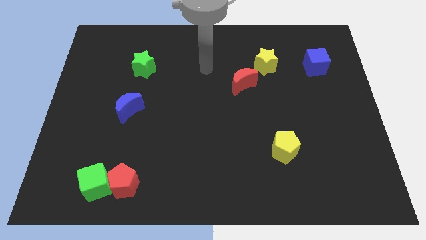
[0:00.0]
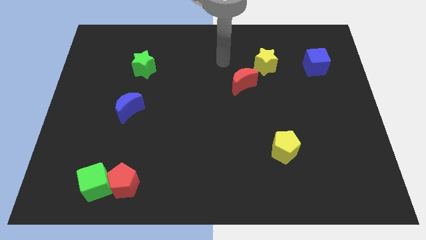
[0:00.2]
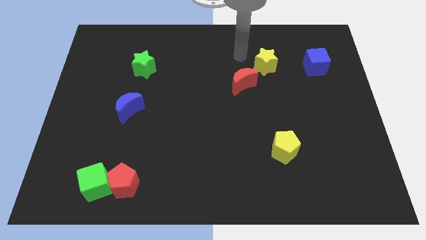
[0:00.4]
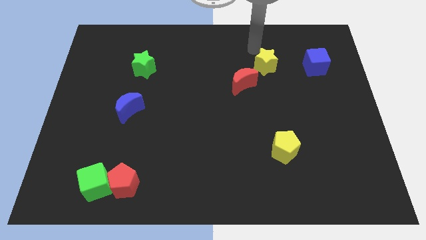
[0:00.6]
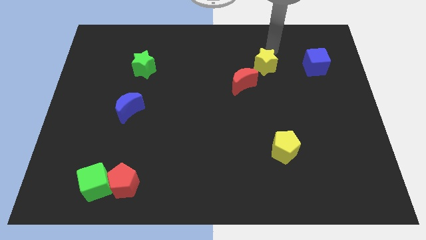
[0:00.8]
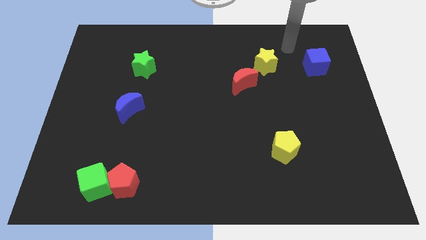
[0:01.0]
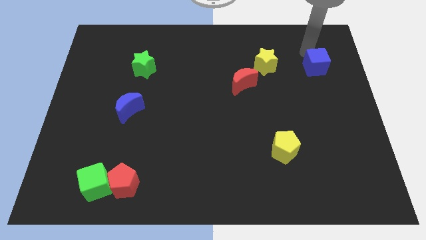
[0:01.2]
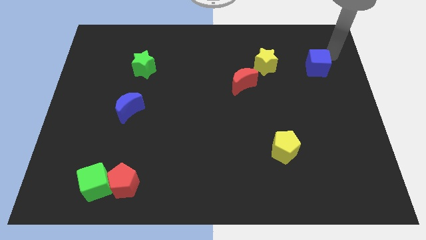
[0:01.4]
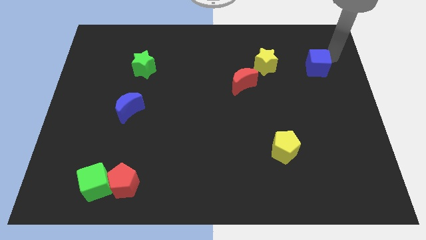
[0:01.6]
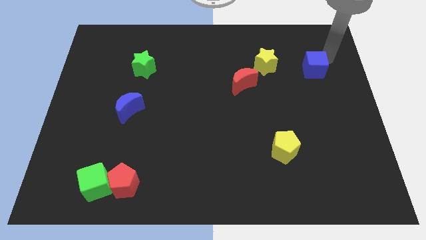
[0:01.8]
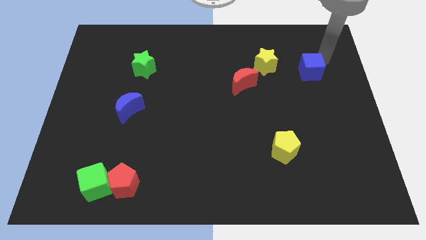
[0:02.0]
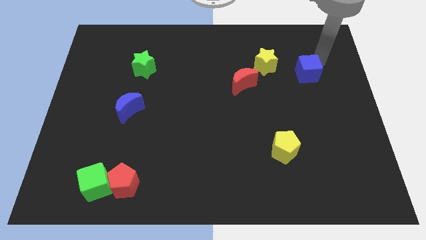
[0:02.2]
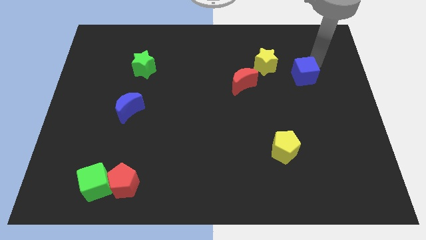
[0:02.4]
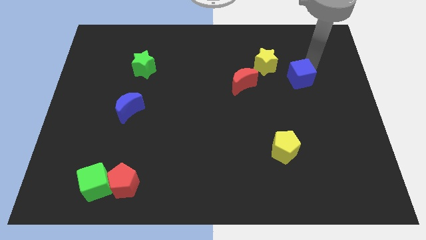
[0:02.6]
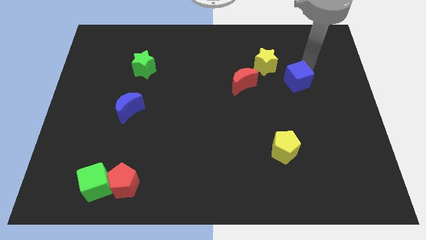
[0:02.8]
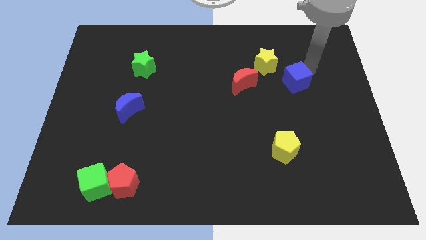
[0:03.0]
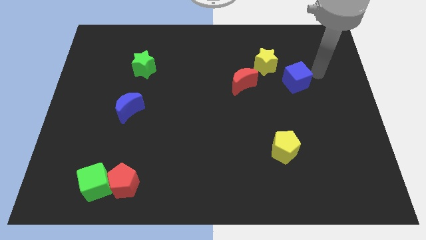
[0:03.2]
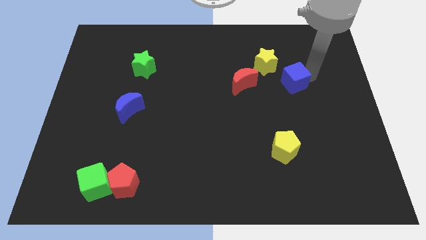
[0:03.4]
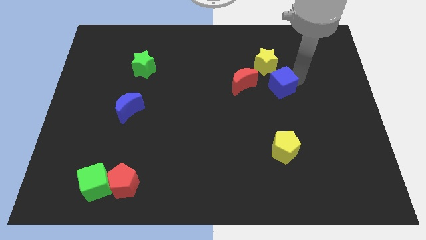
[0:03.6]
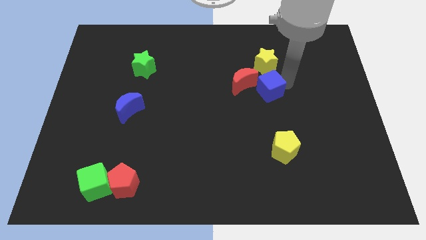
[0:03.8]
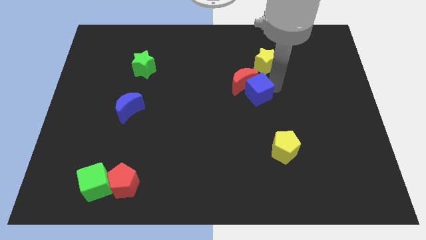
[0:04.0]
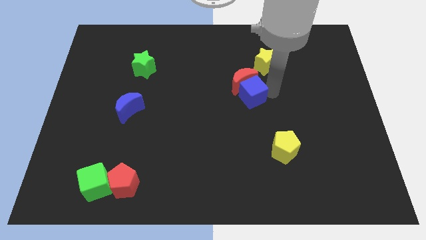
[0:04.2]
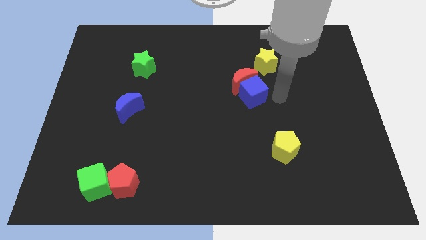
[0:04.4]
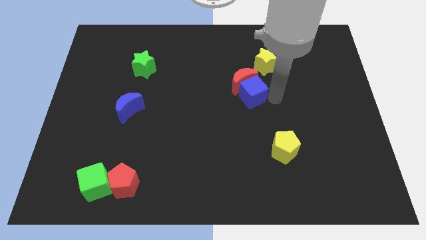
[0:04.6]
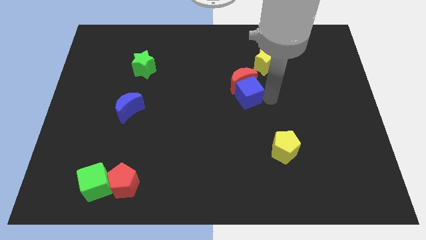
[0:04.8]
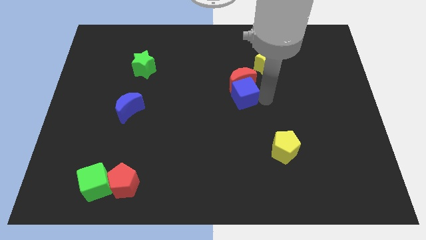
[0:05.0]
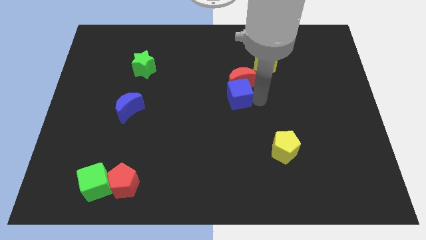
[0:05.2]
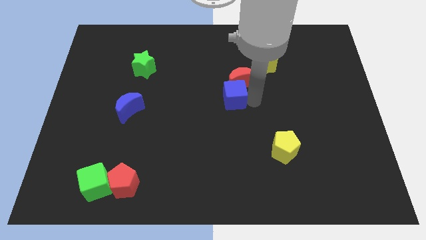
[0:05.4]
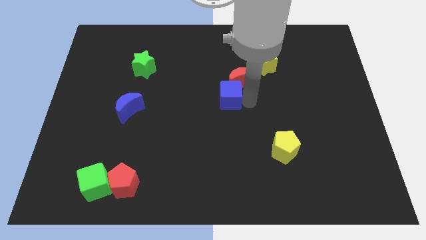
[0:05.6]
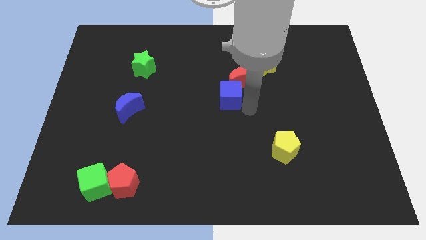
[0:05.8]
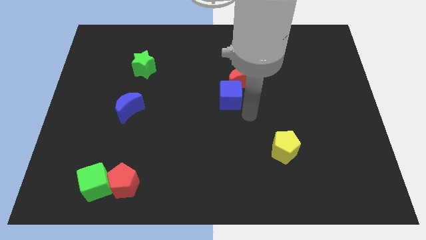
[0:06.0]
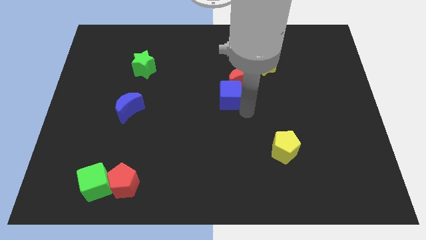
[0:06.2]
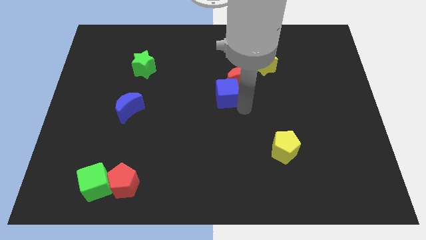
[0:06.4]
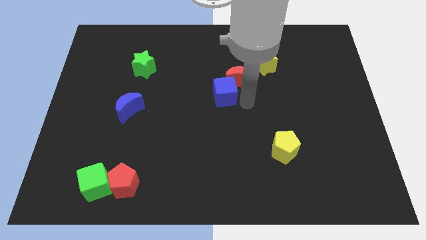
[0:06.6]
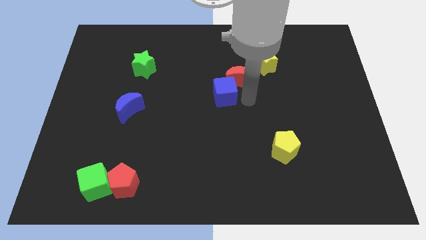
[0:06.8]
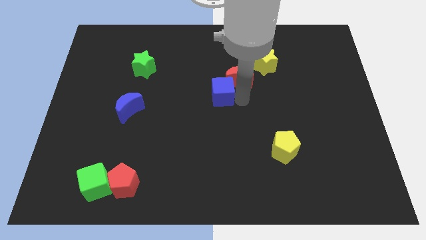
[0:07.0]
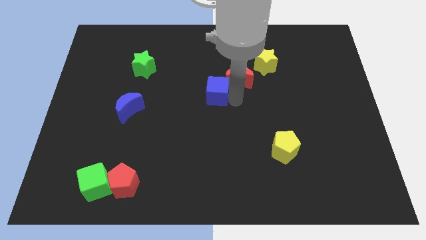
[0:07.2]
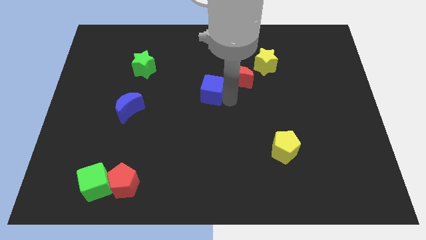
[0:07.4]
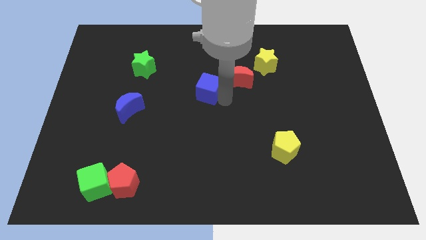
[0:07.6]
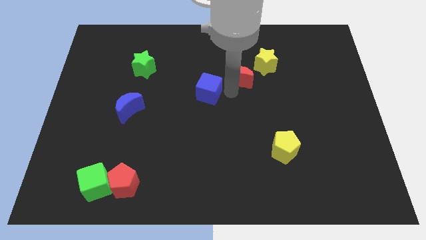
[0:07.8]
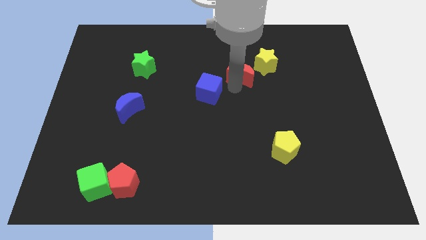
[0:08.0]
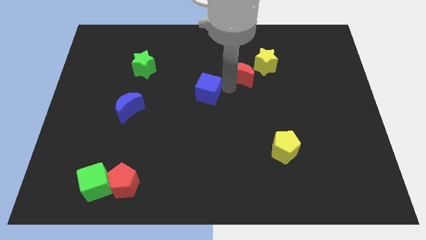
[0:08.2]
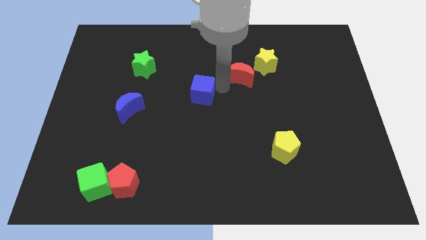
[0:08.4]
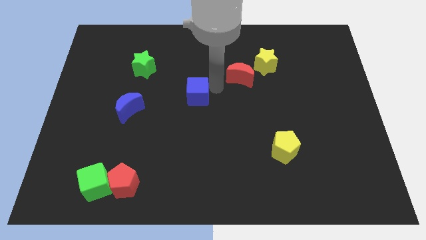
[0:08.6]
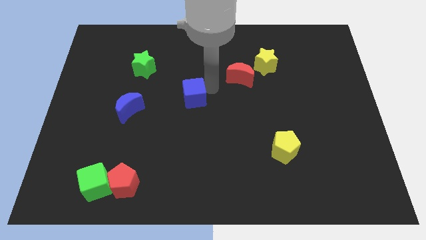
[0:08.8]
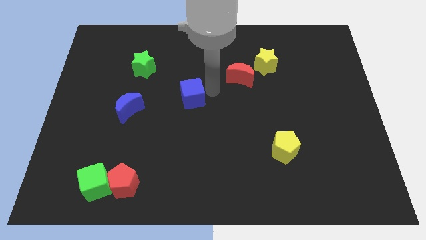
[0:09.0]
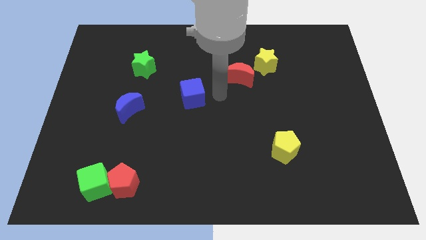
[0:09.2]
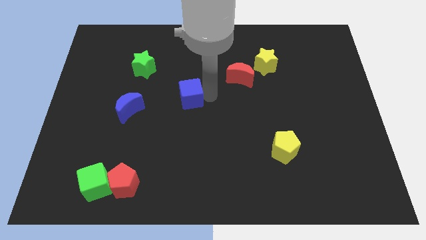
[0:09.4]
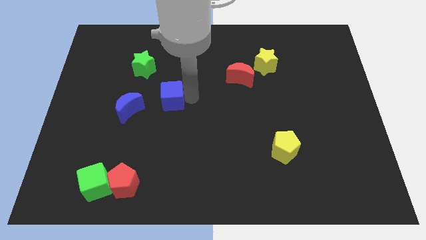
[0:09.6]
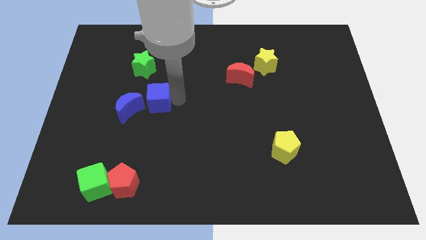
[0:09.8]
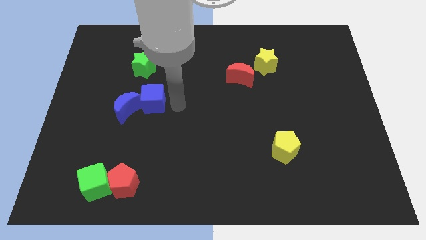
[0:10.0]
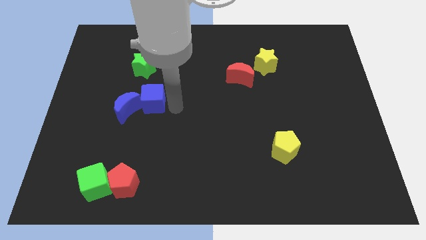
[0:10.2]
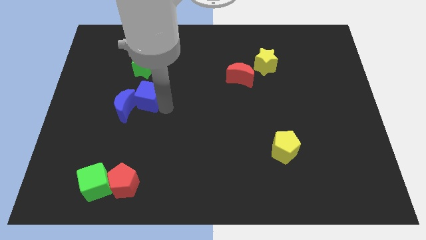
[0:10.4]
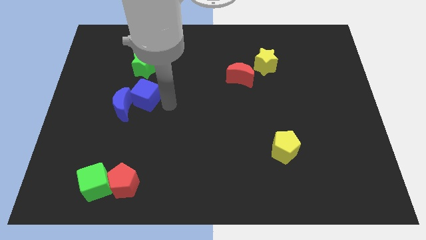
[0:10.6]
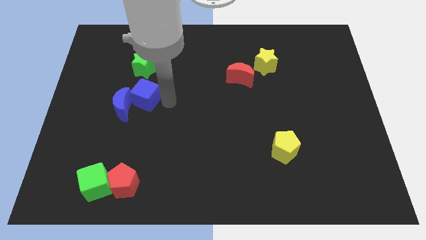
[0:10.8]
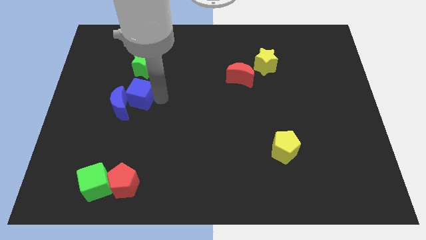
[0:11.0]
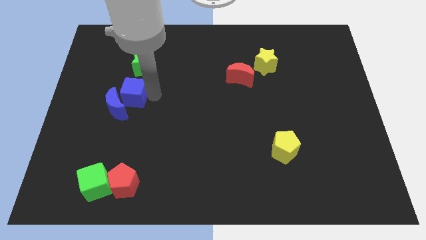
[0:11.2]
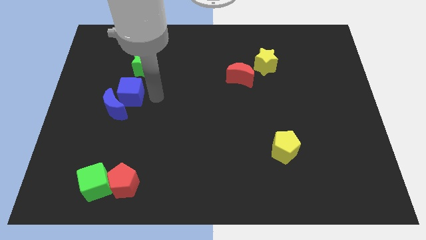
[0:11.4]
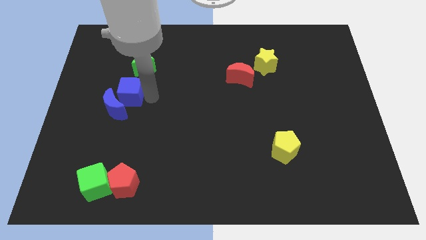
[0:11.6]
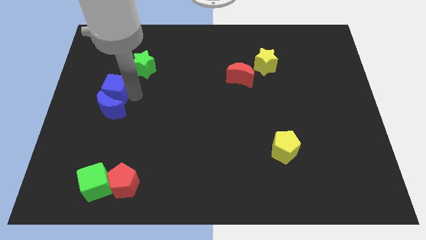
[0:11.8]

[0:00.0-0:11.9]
push the blue cube diagonally up and to the left of the blue moon
